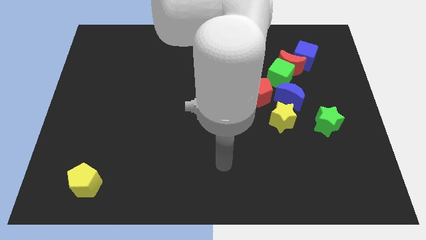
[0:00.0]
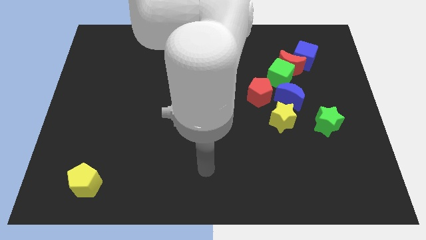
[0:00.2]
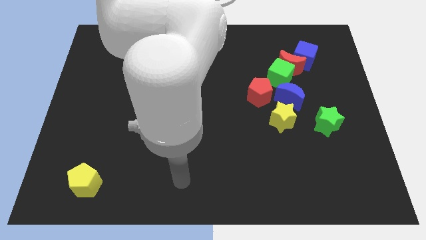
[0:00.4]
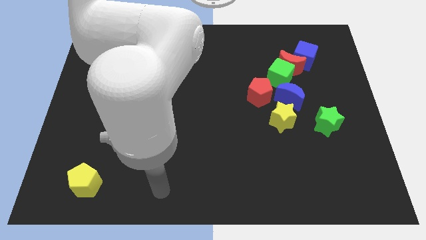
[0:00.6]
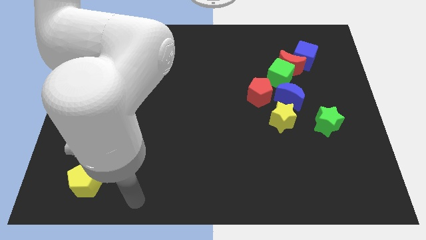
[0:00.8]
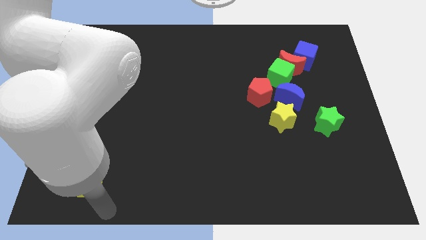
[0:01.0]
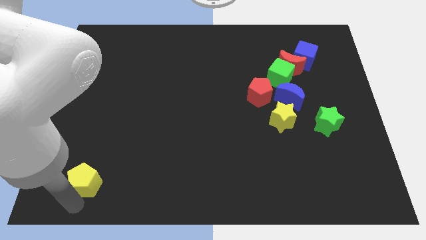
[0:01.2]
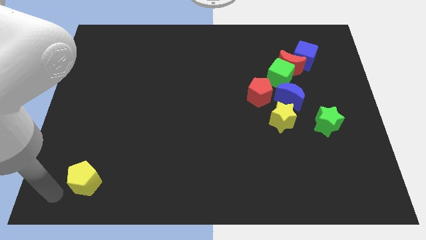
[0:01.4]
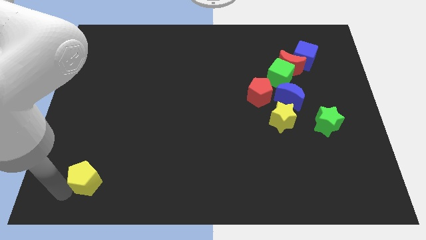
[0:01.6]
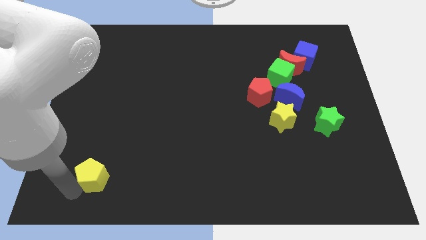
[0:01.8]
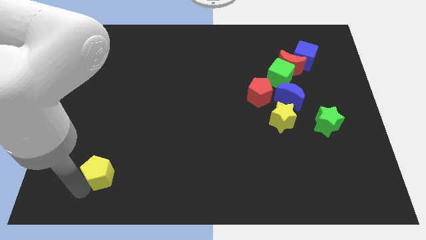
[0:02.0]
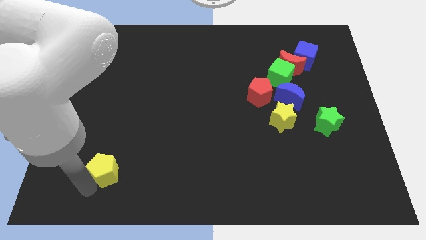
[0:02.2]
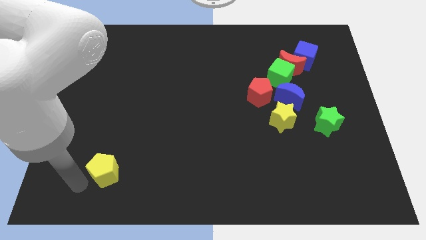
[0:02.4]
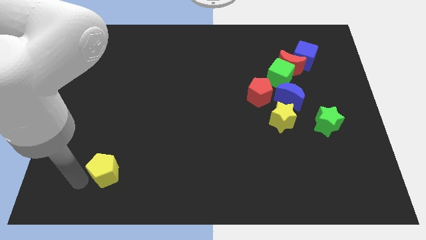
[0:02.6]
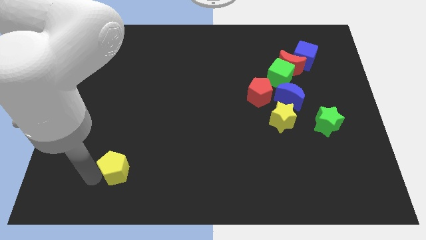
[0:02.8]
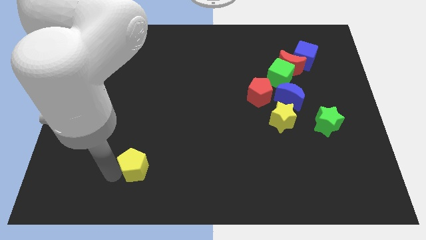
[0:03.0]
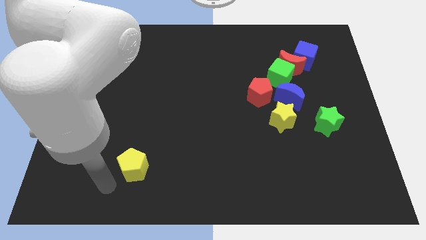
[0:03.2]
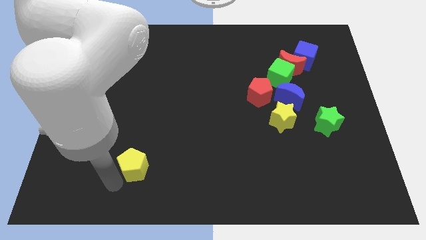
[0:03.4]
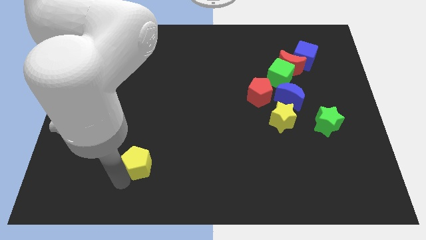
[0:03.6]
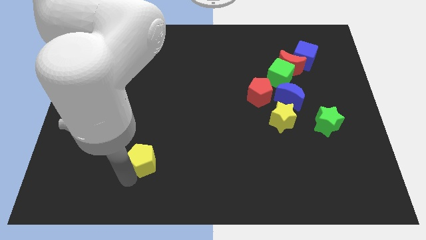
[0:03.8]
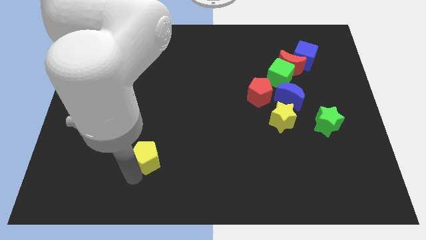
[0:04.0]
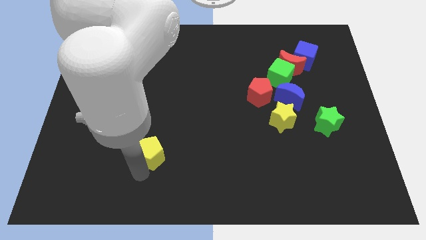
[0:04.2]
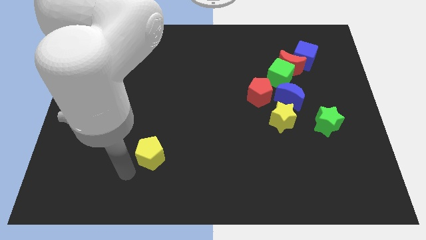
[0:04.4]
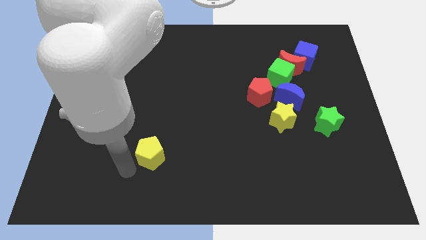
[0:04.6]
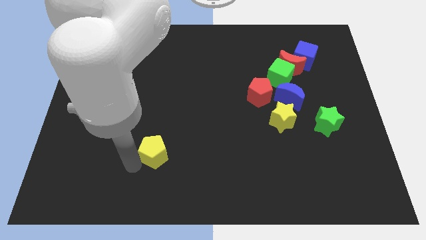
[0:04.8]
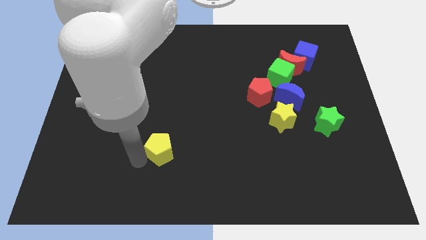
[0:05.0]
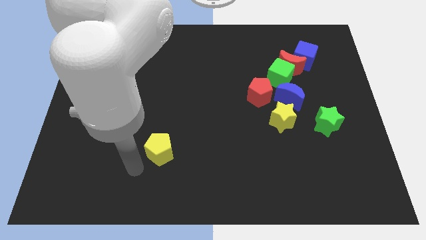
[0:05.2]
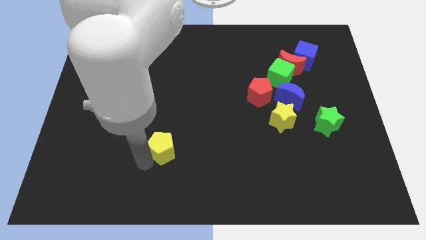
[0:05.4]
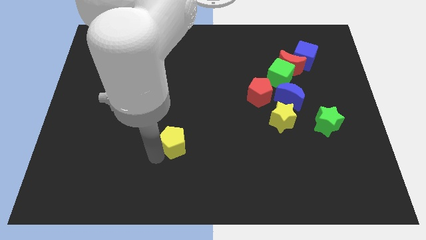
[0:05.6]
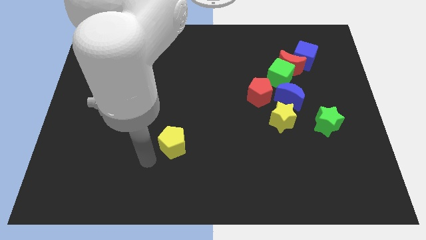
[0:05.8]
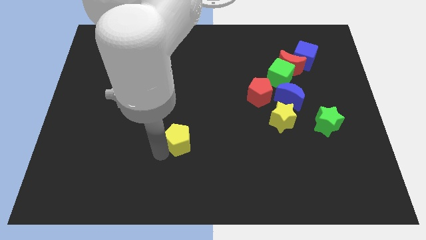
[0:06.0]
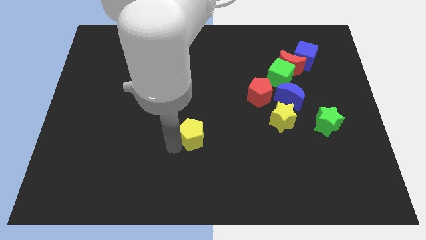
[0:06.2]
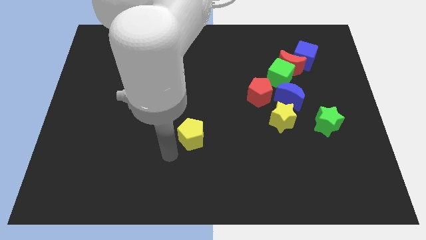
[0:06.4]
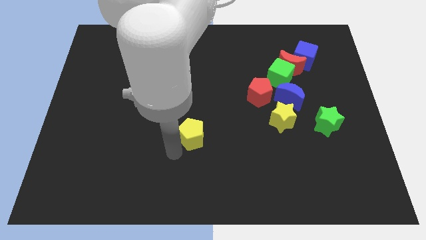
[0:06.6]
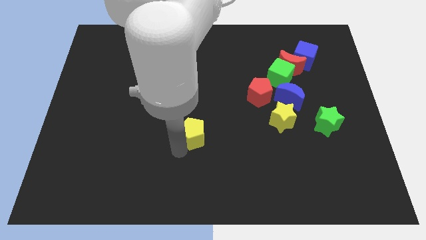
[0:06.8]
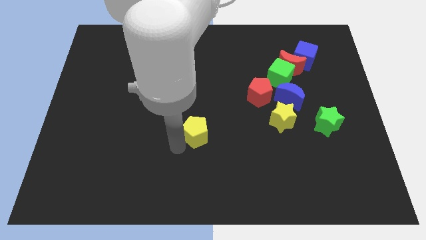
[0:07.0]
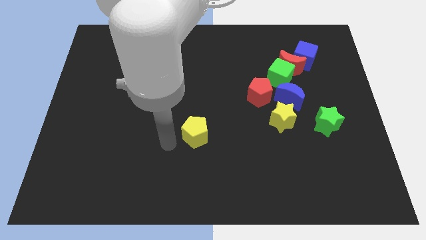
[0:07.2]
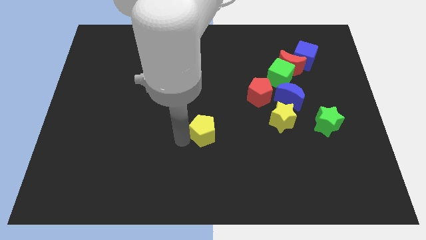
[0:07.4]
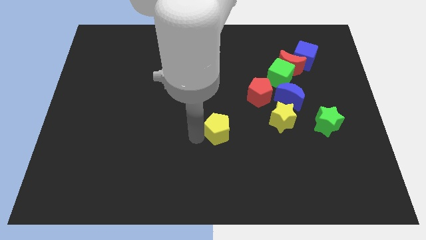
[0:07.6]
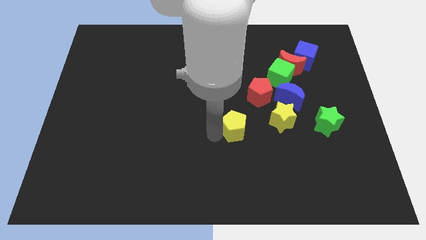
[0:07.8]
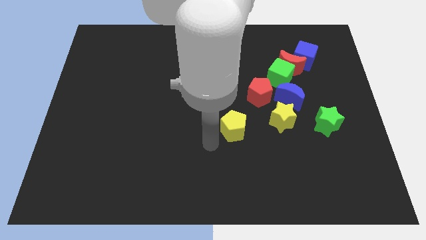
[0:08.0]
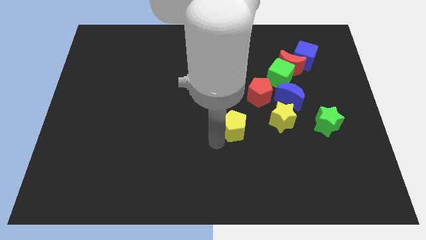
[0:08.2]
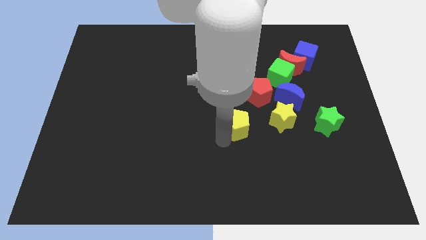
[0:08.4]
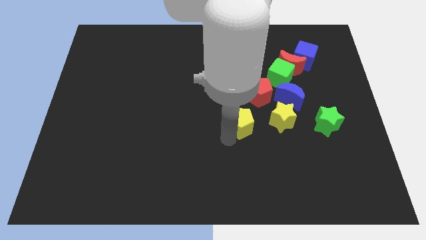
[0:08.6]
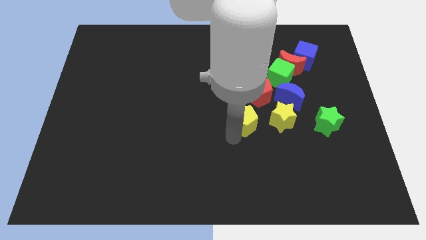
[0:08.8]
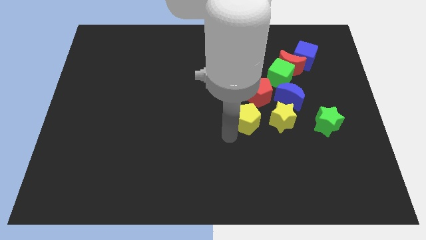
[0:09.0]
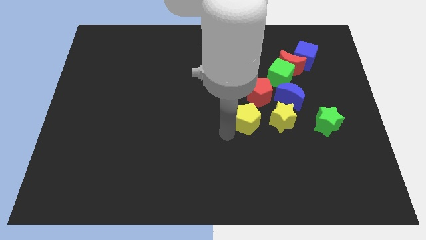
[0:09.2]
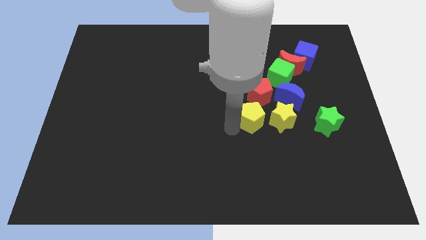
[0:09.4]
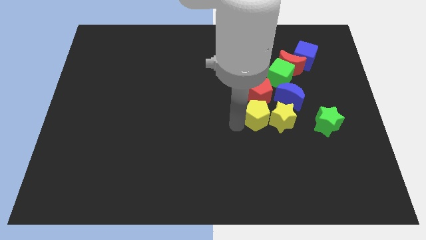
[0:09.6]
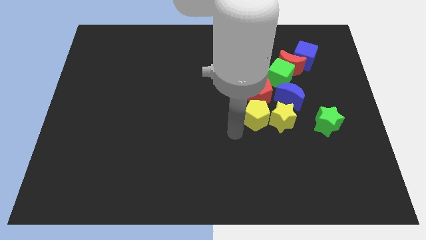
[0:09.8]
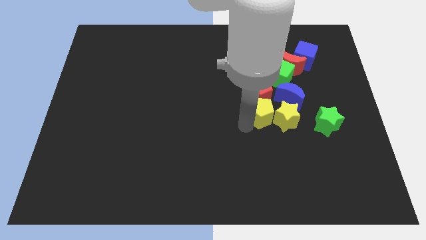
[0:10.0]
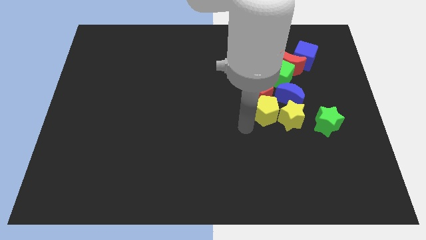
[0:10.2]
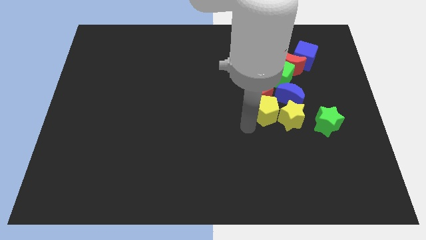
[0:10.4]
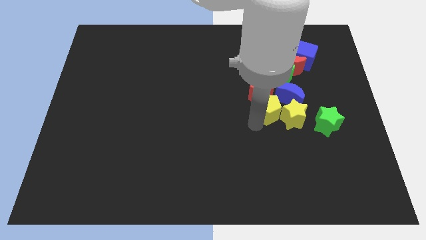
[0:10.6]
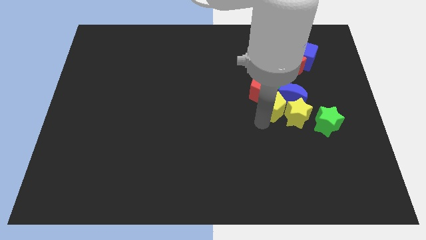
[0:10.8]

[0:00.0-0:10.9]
put the yellow pentagon to the blue moon

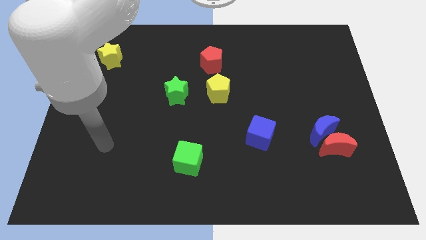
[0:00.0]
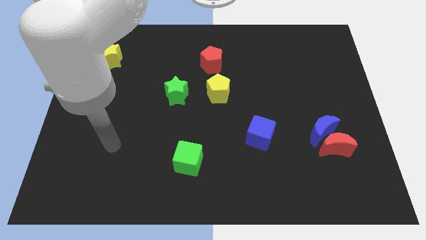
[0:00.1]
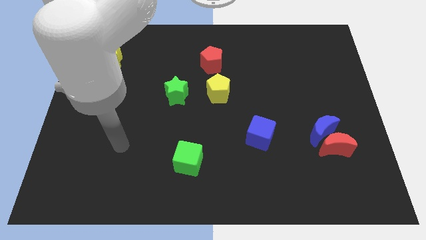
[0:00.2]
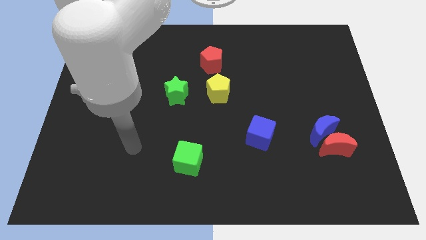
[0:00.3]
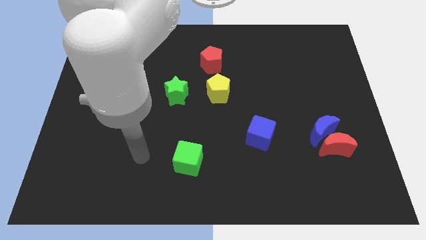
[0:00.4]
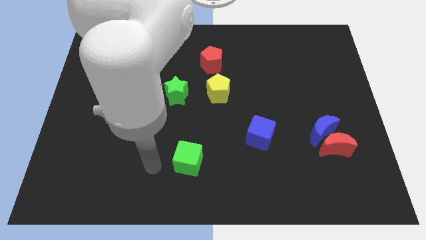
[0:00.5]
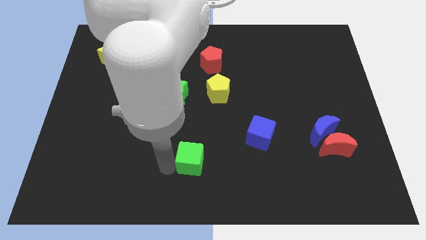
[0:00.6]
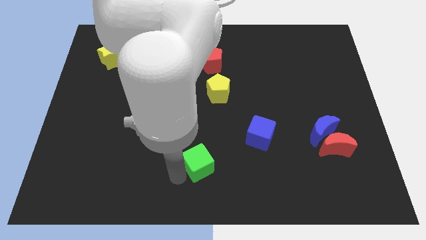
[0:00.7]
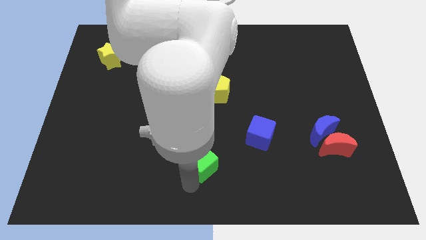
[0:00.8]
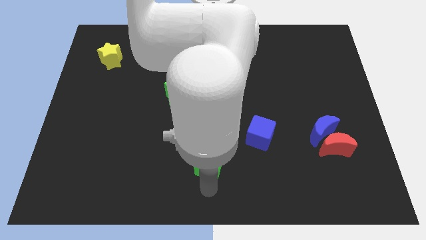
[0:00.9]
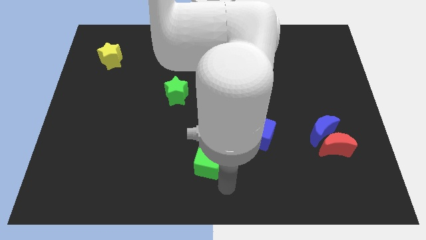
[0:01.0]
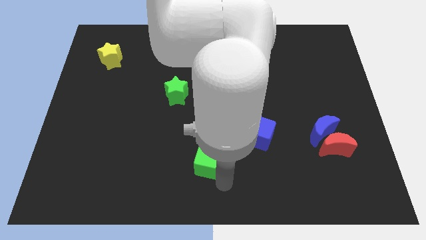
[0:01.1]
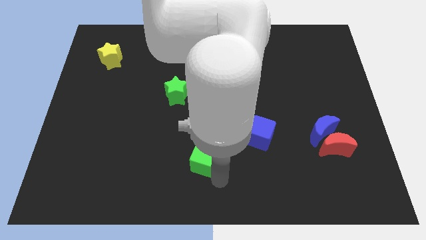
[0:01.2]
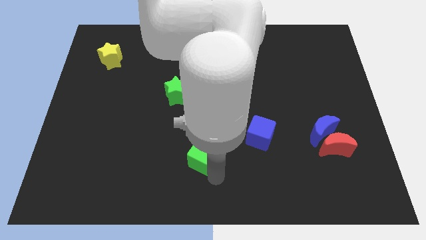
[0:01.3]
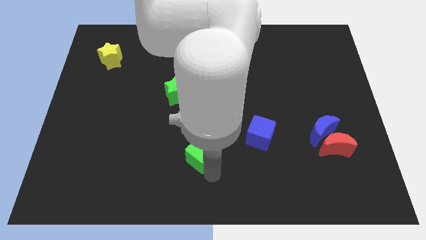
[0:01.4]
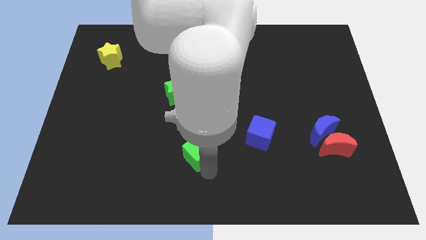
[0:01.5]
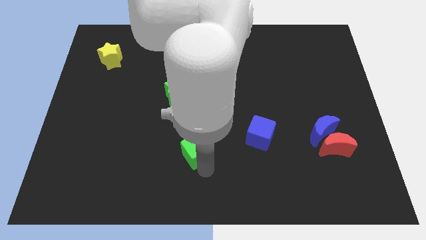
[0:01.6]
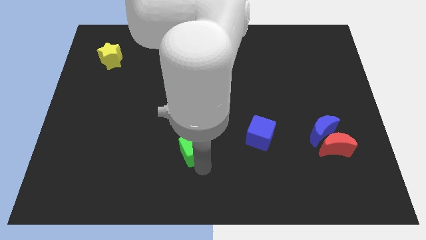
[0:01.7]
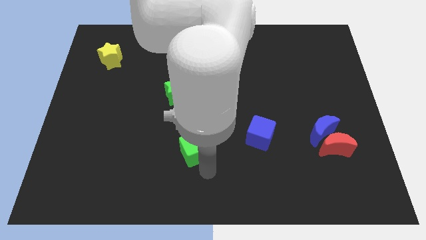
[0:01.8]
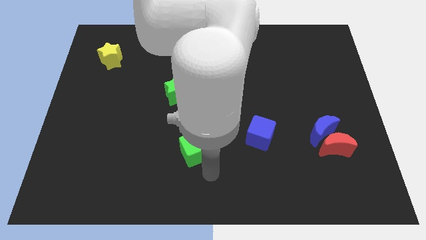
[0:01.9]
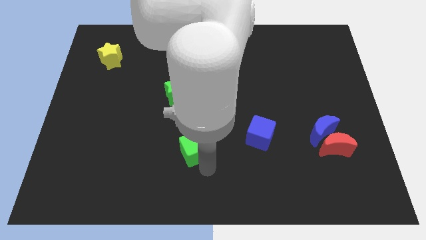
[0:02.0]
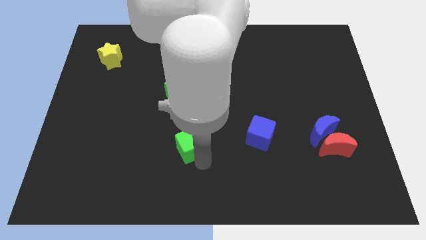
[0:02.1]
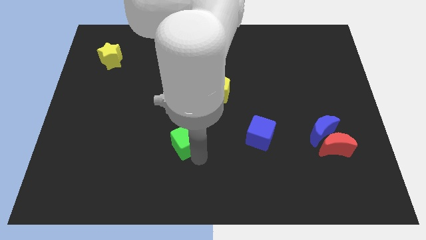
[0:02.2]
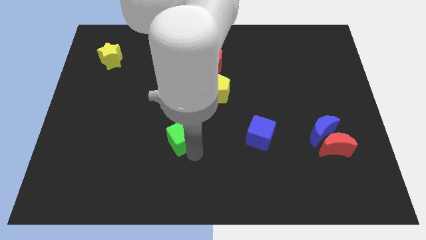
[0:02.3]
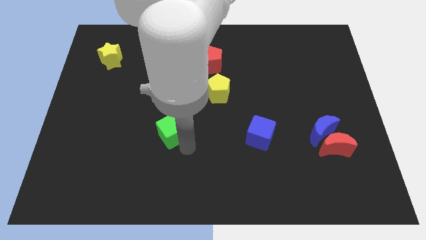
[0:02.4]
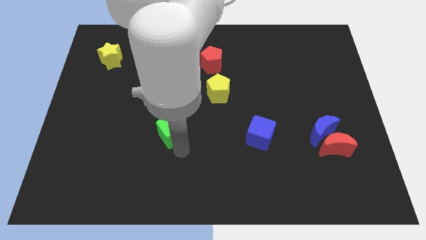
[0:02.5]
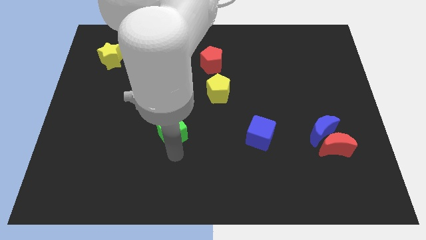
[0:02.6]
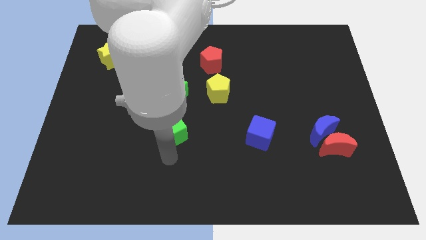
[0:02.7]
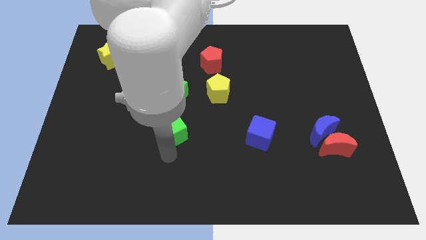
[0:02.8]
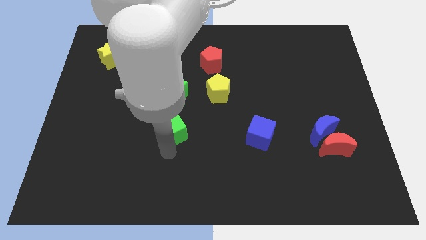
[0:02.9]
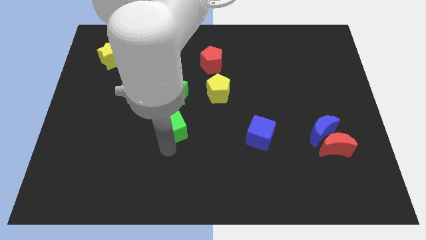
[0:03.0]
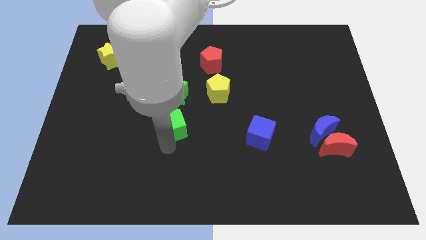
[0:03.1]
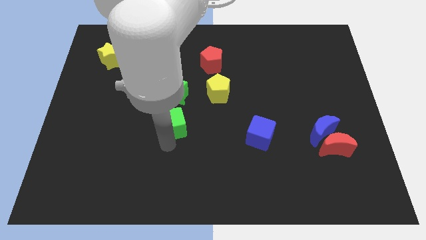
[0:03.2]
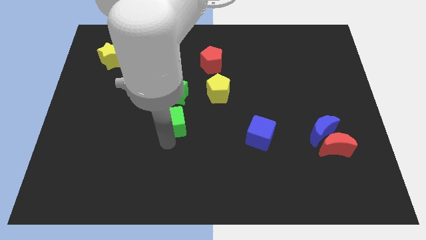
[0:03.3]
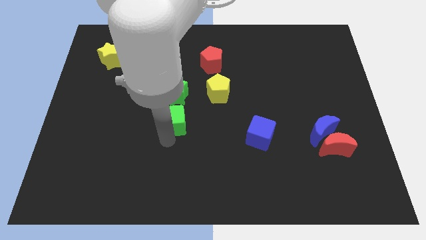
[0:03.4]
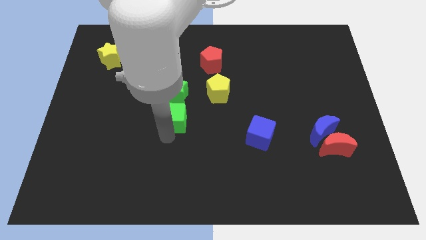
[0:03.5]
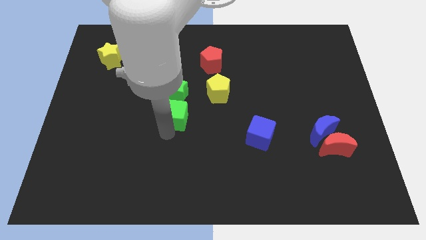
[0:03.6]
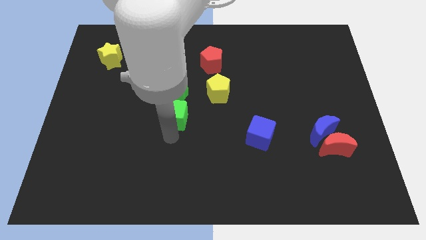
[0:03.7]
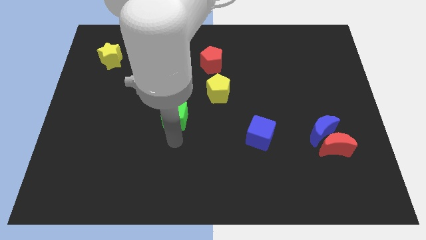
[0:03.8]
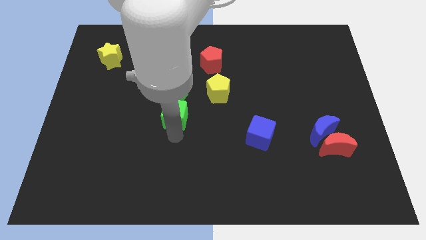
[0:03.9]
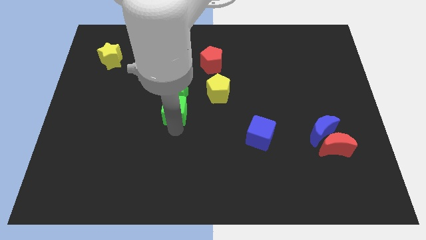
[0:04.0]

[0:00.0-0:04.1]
put the green cube next to the green star
